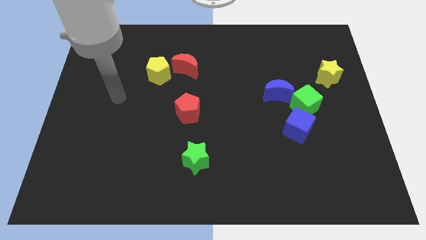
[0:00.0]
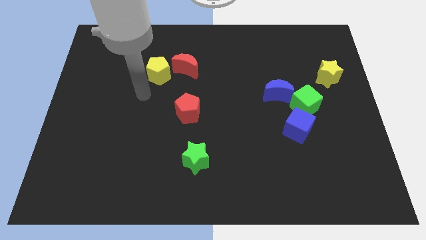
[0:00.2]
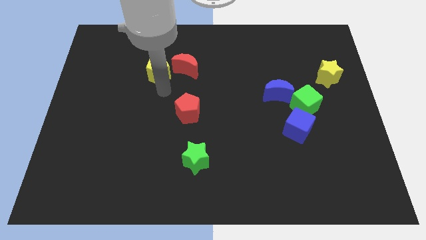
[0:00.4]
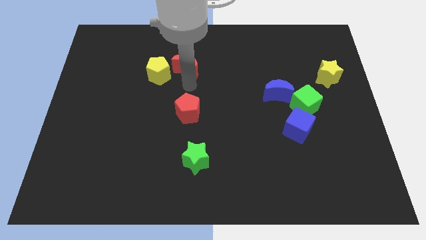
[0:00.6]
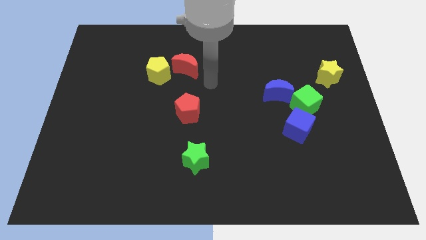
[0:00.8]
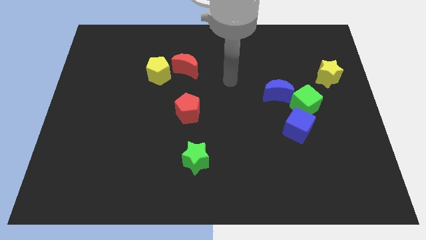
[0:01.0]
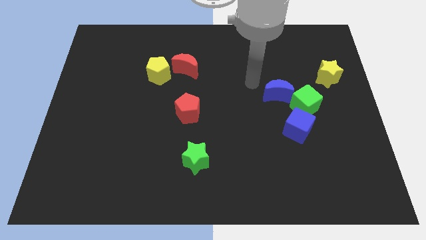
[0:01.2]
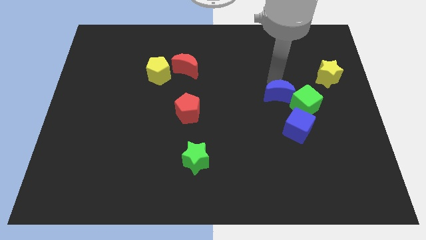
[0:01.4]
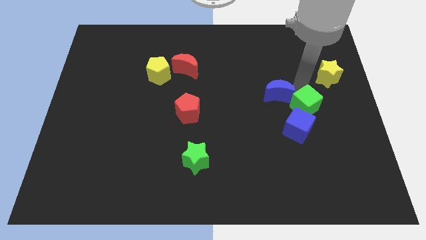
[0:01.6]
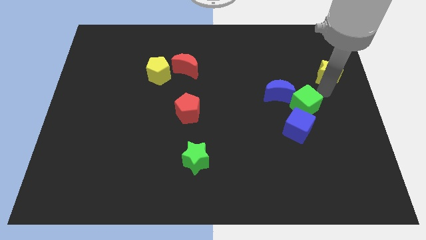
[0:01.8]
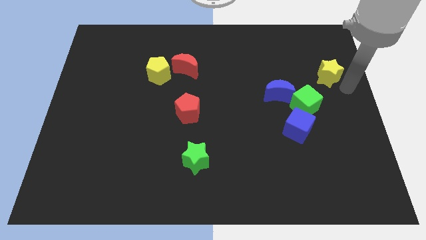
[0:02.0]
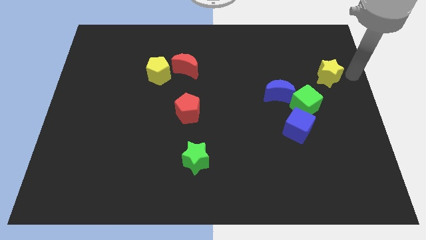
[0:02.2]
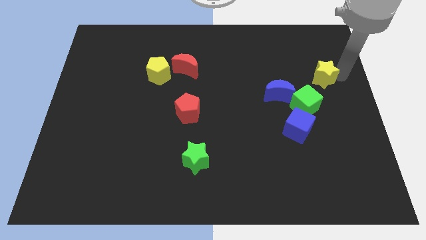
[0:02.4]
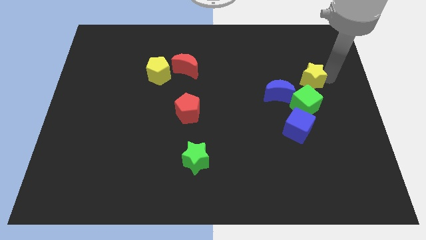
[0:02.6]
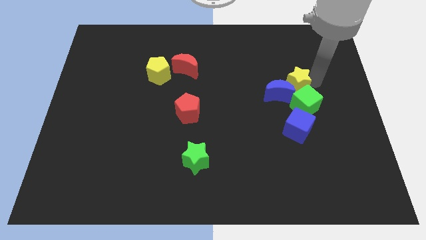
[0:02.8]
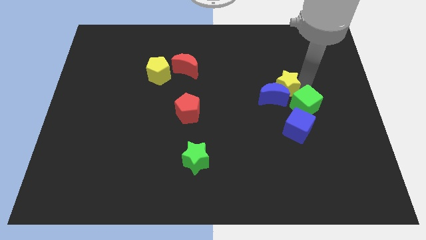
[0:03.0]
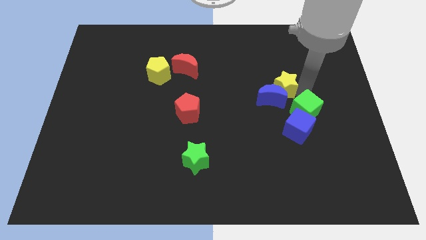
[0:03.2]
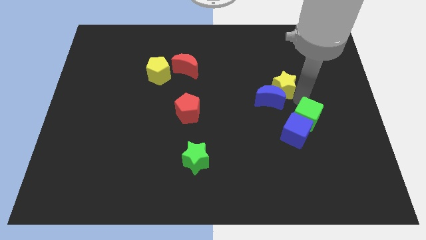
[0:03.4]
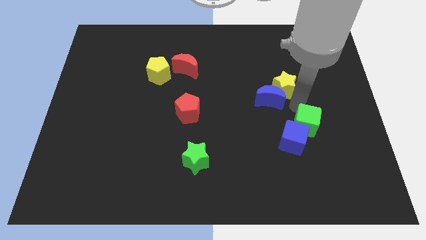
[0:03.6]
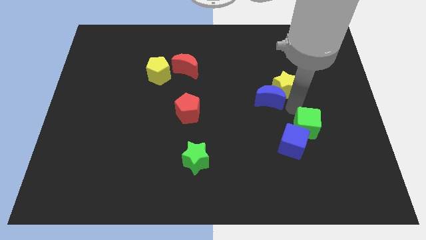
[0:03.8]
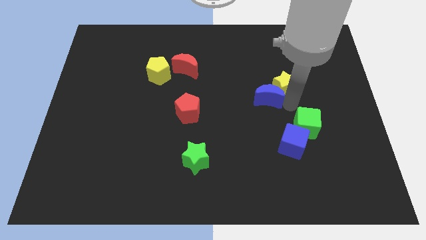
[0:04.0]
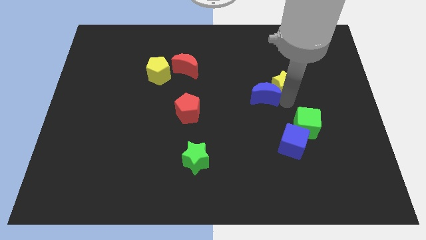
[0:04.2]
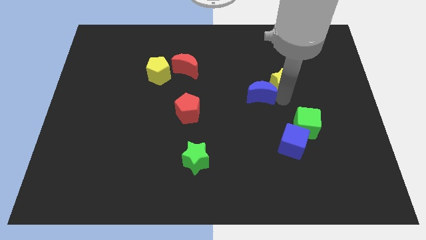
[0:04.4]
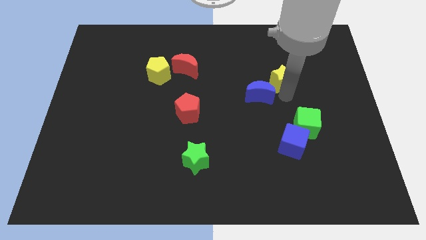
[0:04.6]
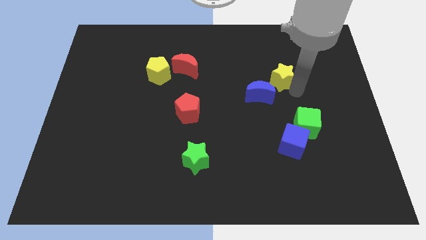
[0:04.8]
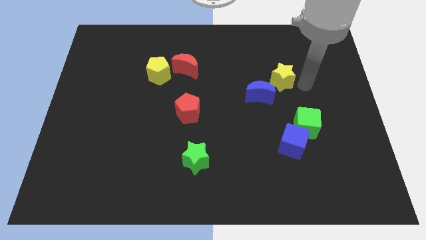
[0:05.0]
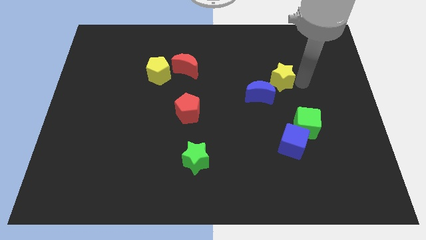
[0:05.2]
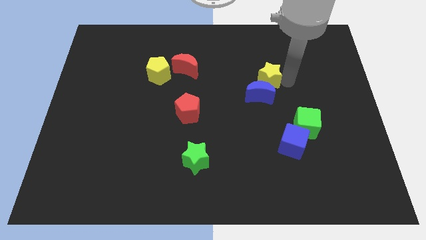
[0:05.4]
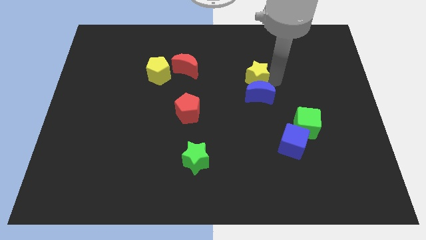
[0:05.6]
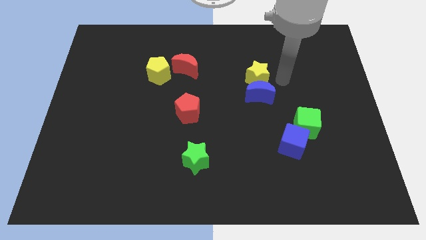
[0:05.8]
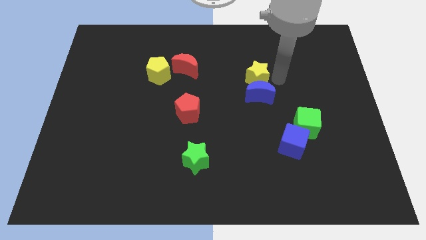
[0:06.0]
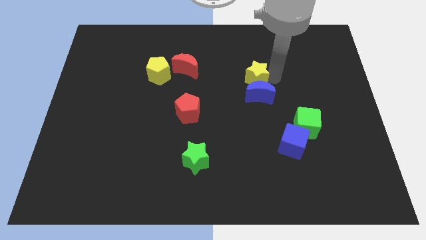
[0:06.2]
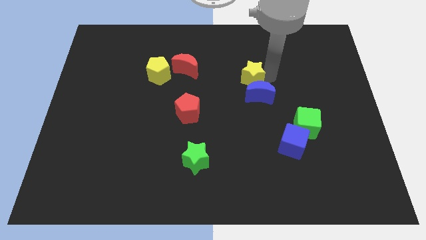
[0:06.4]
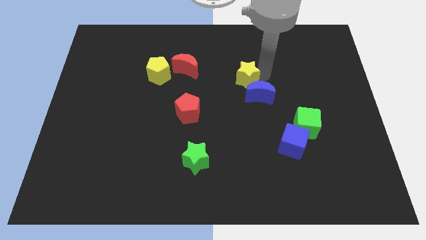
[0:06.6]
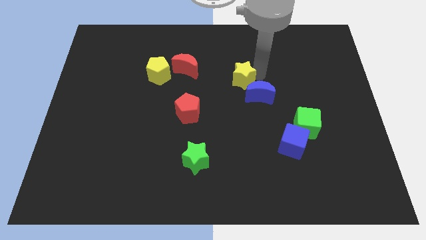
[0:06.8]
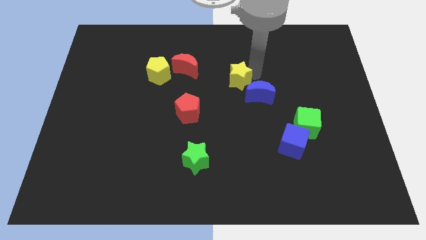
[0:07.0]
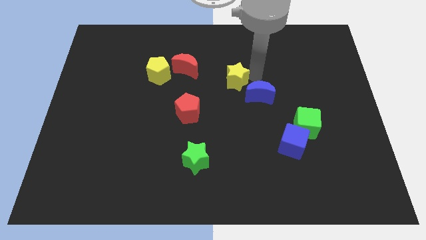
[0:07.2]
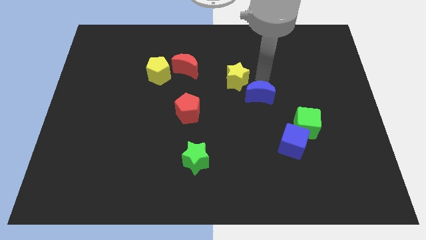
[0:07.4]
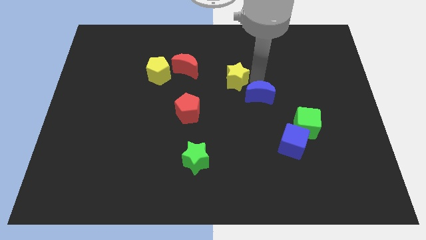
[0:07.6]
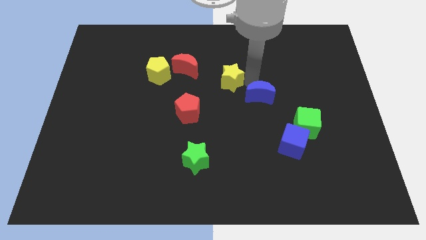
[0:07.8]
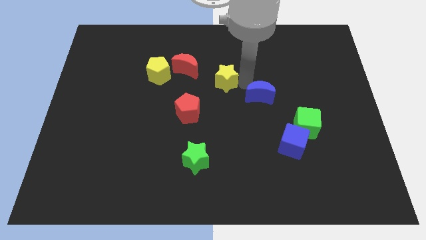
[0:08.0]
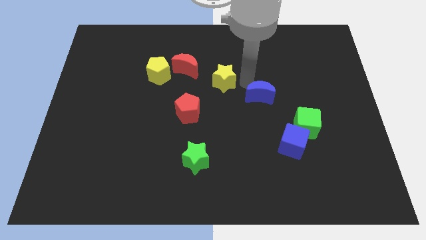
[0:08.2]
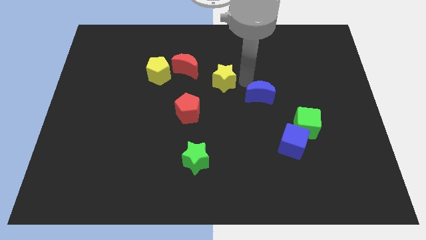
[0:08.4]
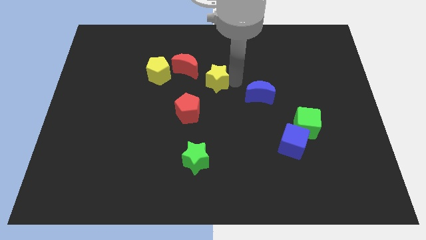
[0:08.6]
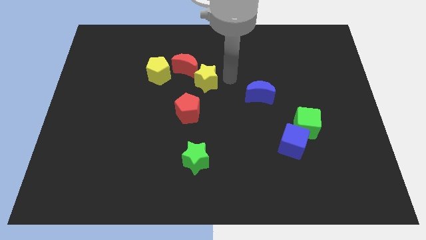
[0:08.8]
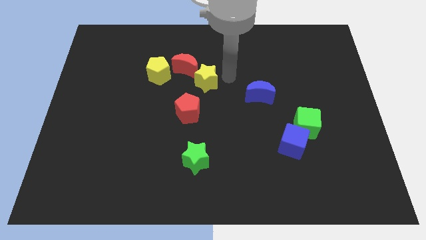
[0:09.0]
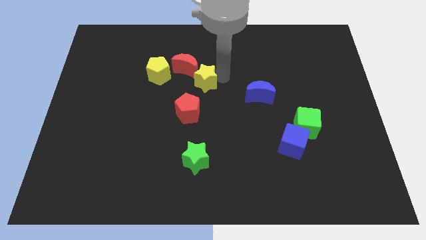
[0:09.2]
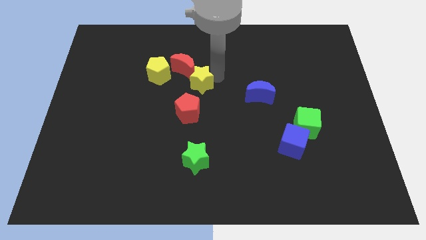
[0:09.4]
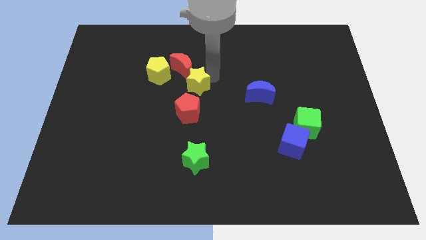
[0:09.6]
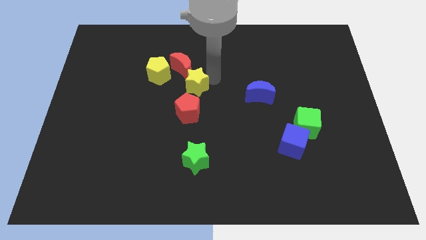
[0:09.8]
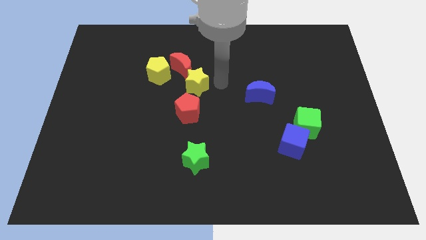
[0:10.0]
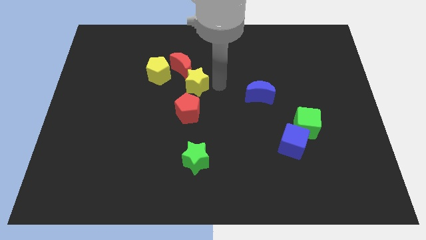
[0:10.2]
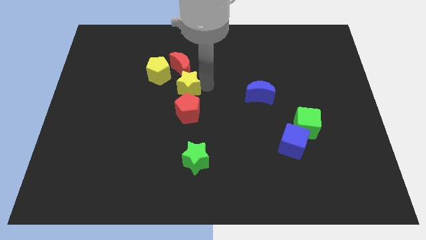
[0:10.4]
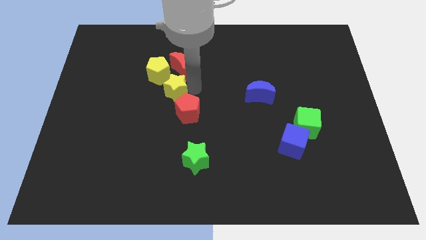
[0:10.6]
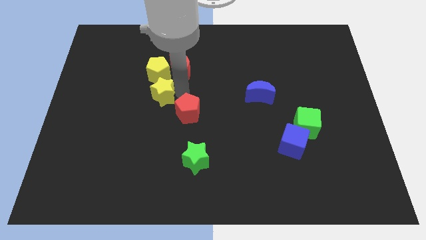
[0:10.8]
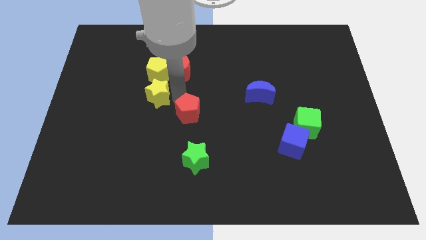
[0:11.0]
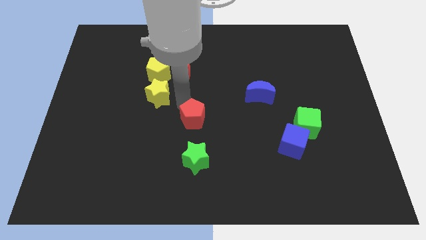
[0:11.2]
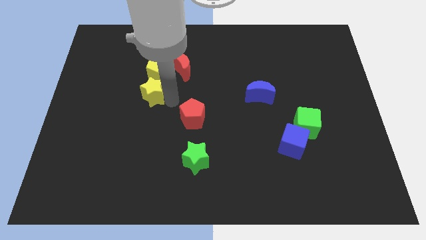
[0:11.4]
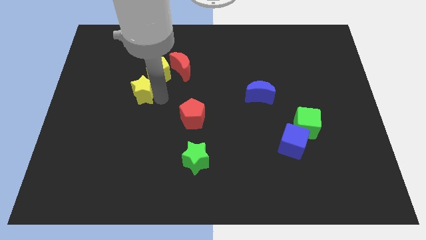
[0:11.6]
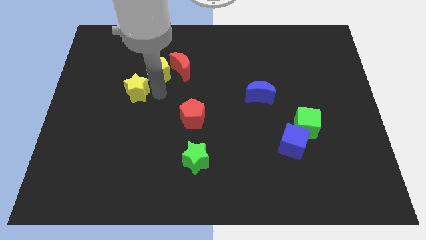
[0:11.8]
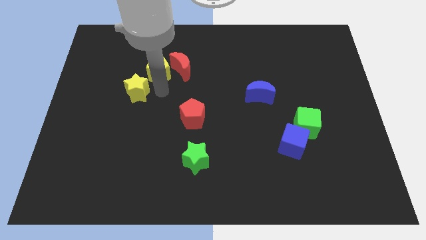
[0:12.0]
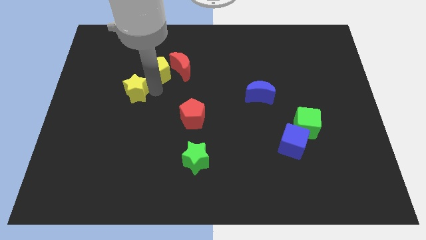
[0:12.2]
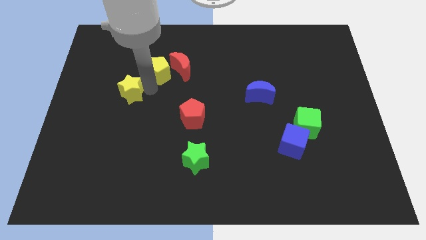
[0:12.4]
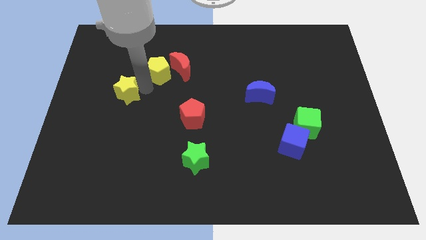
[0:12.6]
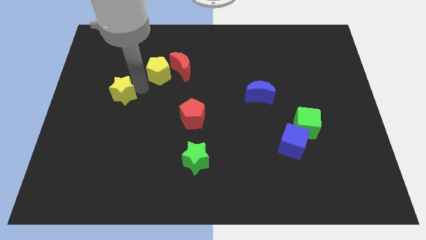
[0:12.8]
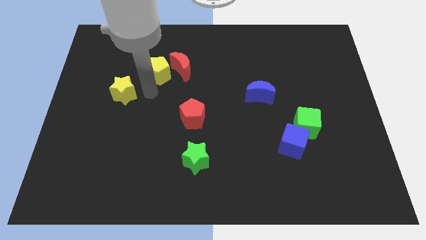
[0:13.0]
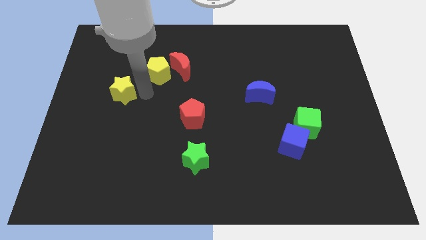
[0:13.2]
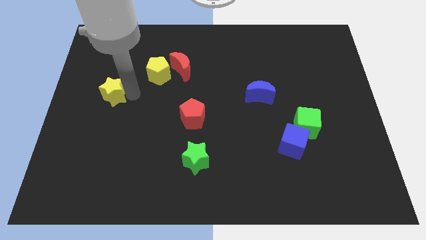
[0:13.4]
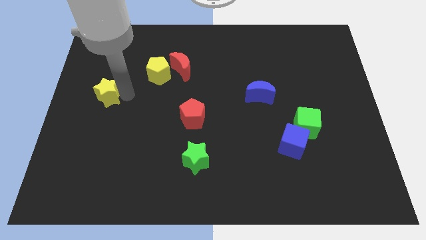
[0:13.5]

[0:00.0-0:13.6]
push the yellow star to the center left
